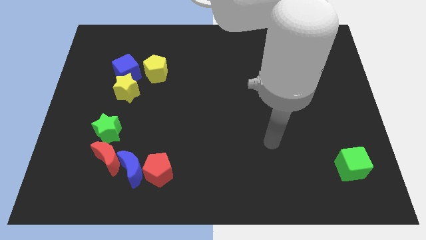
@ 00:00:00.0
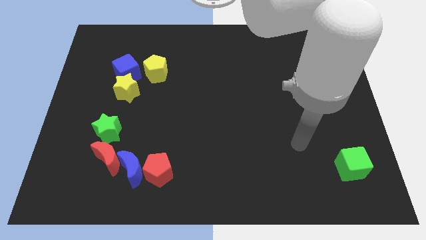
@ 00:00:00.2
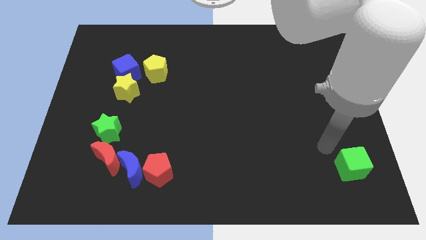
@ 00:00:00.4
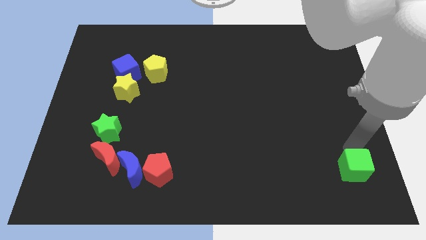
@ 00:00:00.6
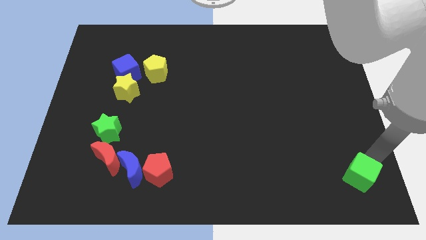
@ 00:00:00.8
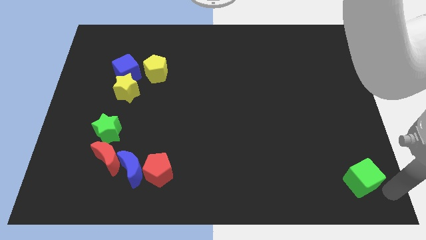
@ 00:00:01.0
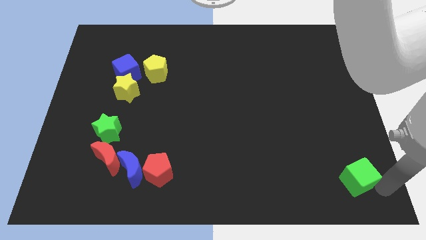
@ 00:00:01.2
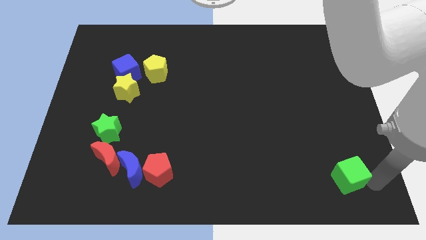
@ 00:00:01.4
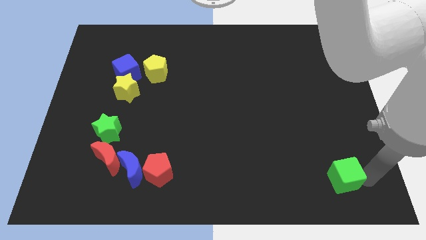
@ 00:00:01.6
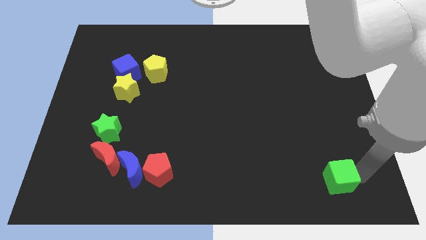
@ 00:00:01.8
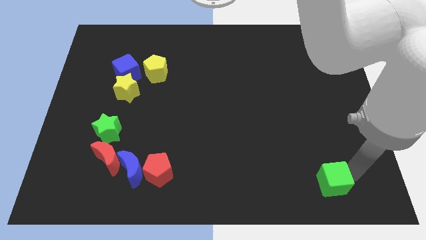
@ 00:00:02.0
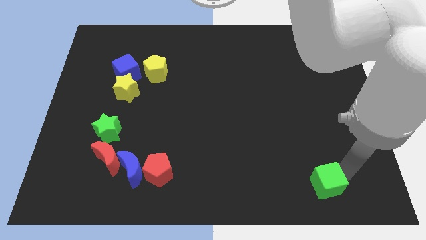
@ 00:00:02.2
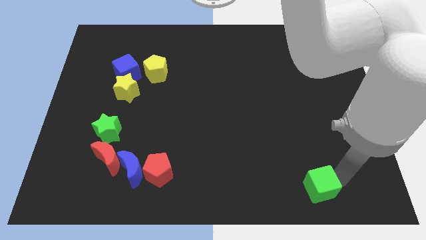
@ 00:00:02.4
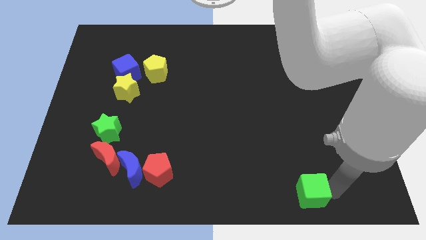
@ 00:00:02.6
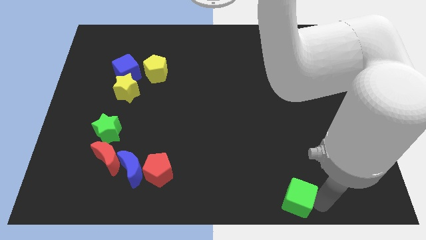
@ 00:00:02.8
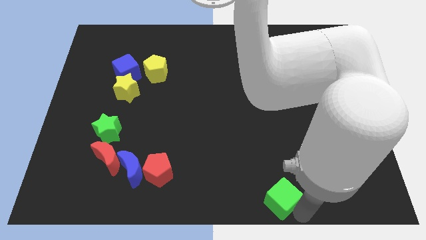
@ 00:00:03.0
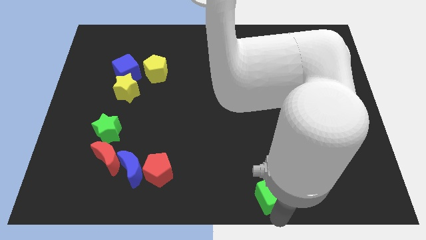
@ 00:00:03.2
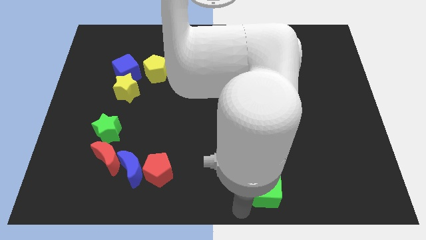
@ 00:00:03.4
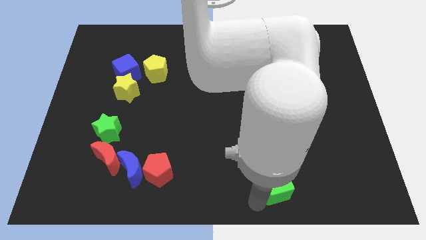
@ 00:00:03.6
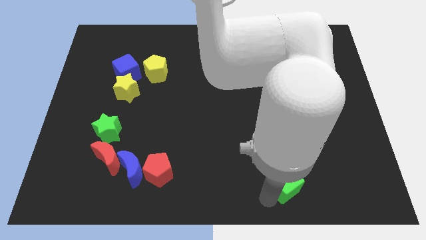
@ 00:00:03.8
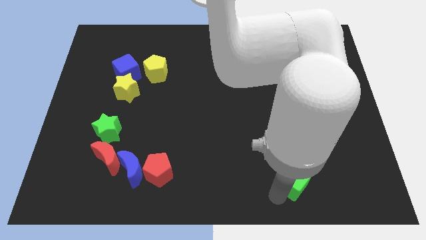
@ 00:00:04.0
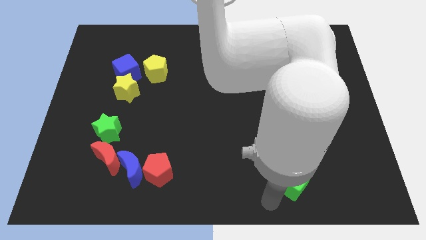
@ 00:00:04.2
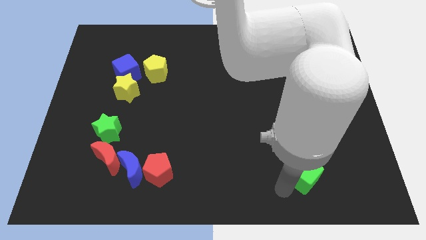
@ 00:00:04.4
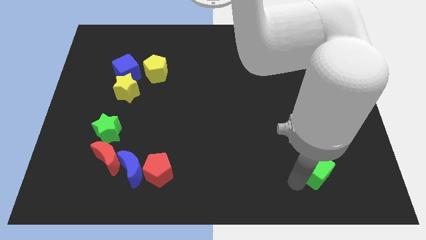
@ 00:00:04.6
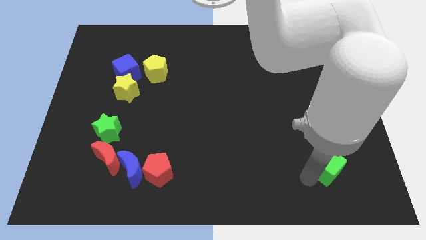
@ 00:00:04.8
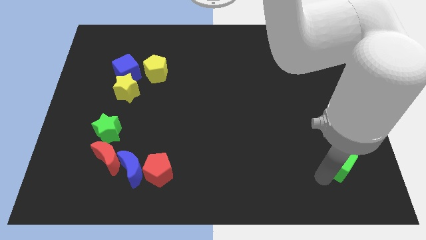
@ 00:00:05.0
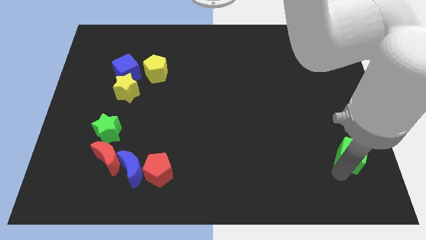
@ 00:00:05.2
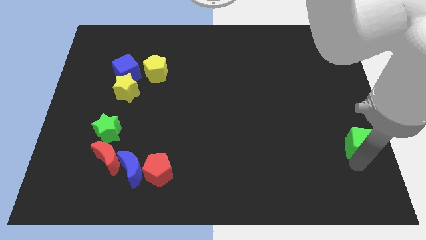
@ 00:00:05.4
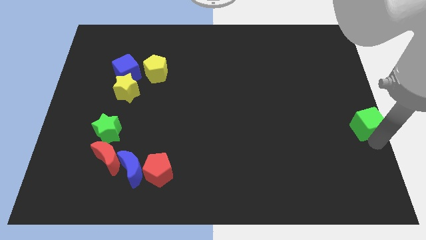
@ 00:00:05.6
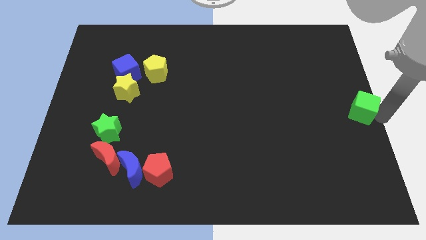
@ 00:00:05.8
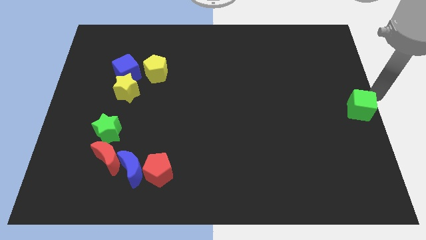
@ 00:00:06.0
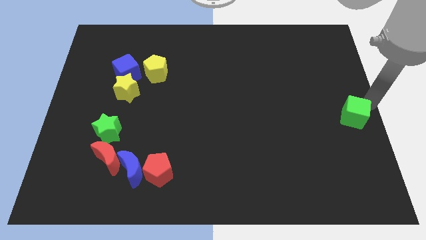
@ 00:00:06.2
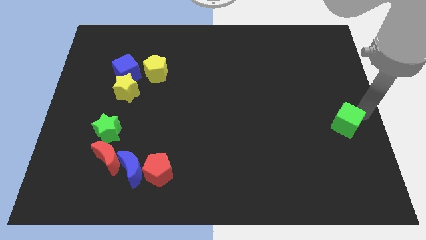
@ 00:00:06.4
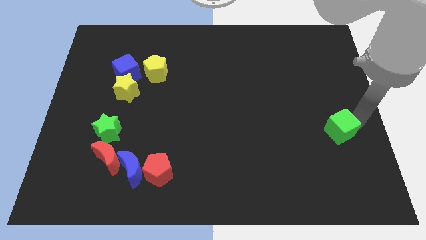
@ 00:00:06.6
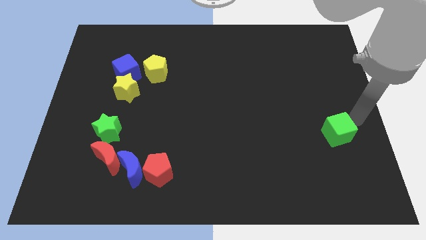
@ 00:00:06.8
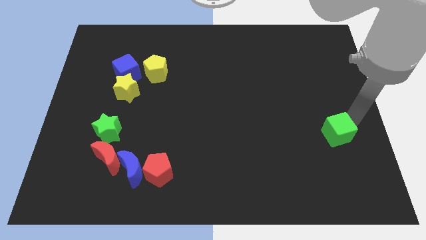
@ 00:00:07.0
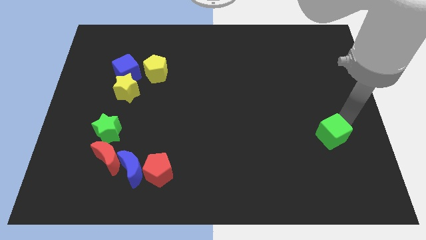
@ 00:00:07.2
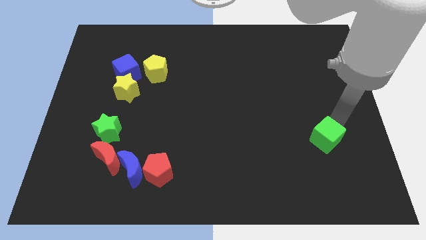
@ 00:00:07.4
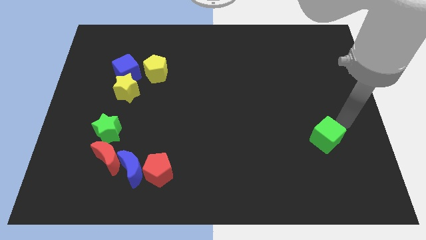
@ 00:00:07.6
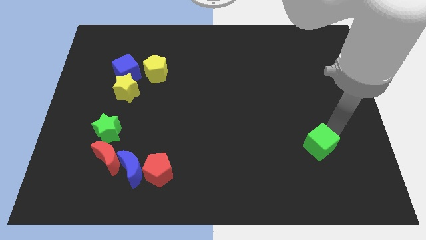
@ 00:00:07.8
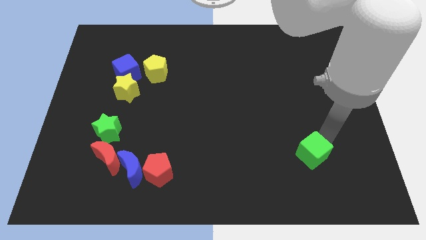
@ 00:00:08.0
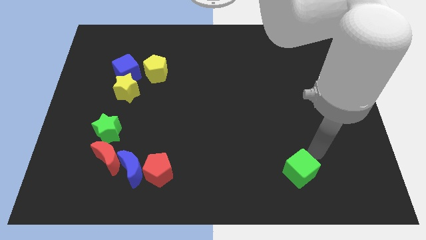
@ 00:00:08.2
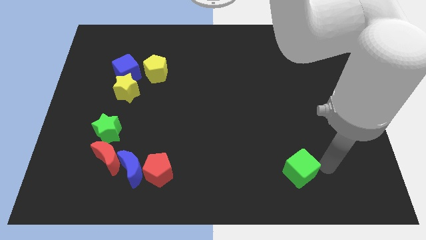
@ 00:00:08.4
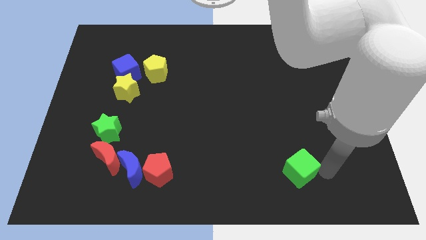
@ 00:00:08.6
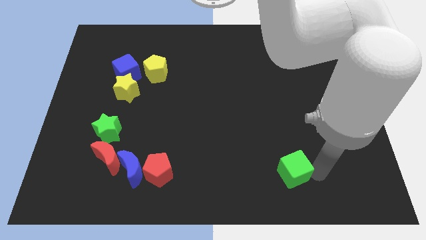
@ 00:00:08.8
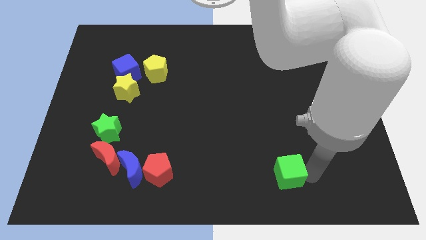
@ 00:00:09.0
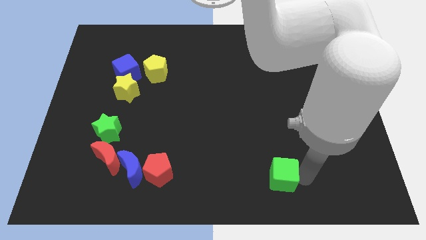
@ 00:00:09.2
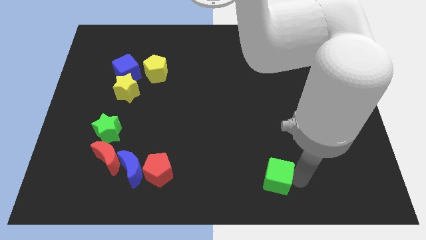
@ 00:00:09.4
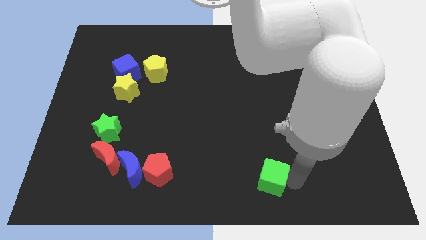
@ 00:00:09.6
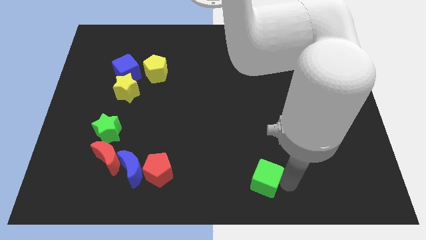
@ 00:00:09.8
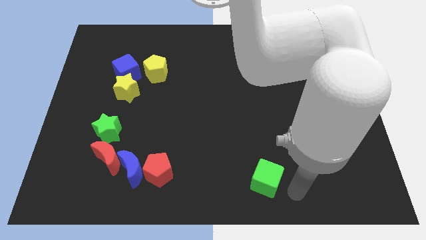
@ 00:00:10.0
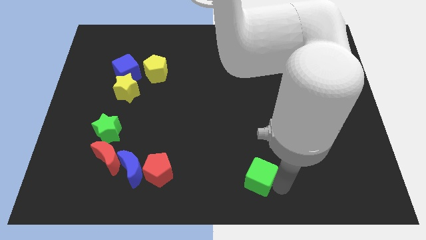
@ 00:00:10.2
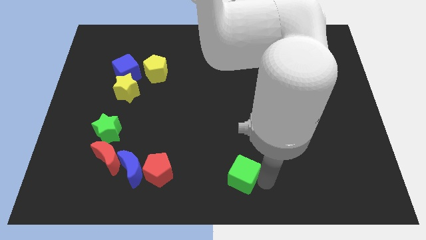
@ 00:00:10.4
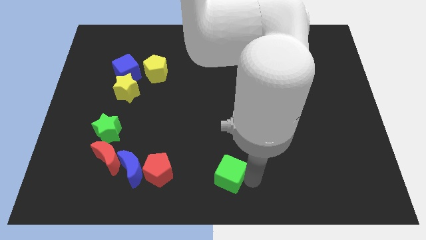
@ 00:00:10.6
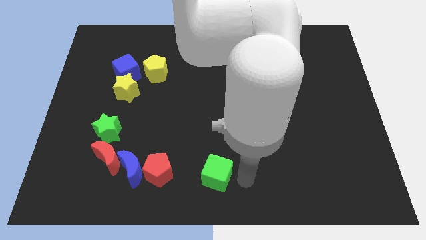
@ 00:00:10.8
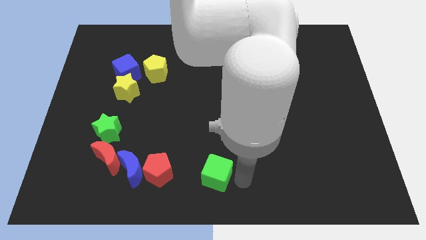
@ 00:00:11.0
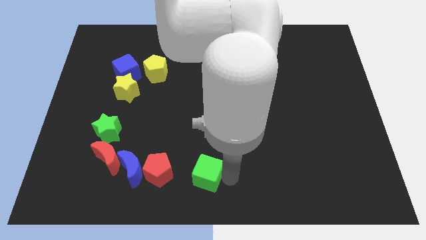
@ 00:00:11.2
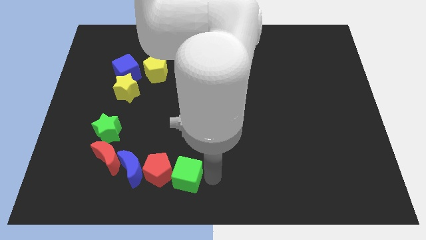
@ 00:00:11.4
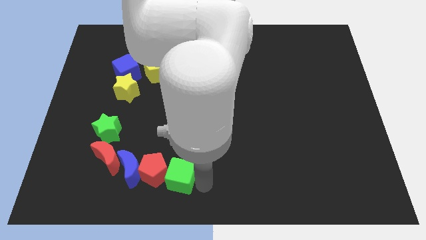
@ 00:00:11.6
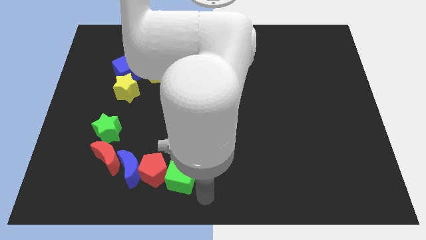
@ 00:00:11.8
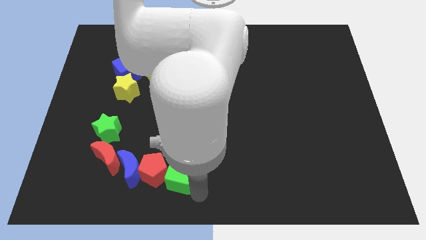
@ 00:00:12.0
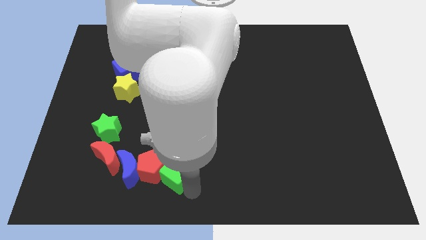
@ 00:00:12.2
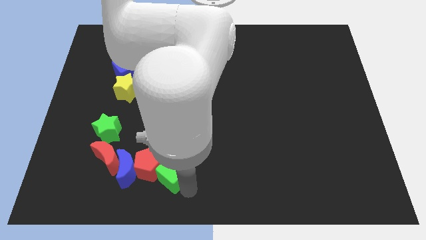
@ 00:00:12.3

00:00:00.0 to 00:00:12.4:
push the green cube to the right of the red moon

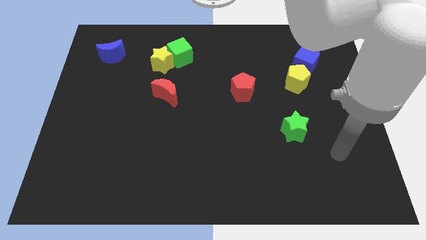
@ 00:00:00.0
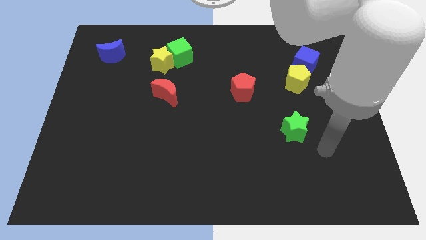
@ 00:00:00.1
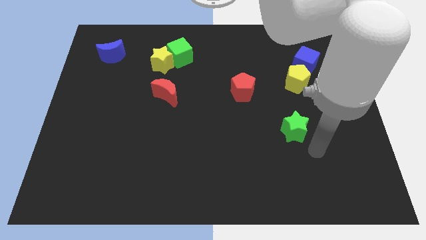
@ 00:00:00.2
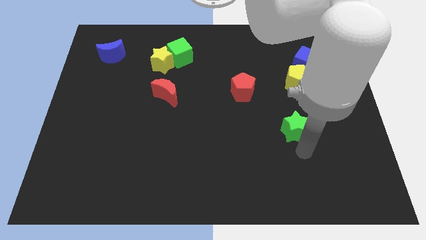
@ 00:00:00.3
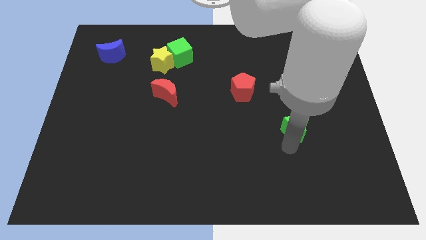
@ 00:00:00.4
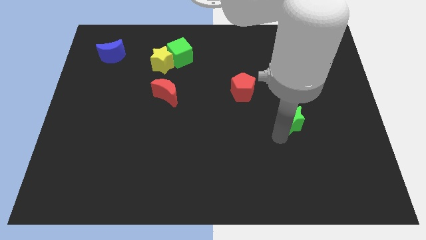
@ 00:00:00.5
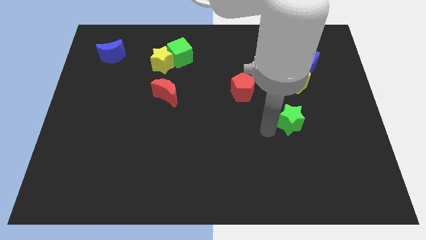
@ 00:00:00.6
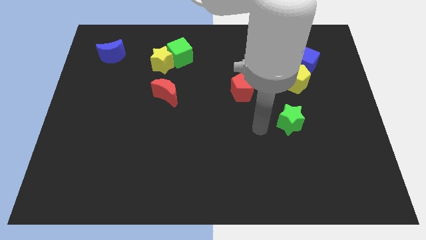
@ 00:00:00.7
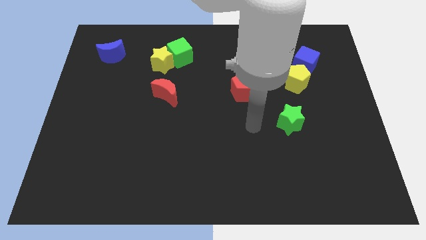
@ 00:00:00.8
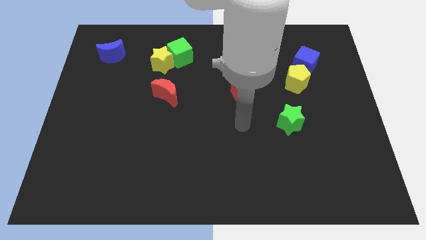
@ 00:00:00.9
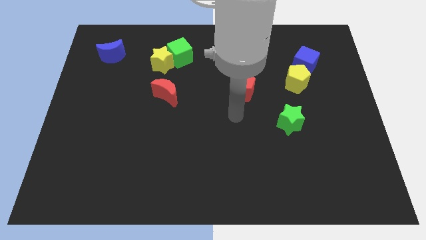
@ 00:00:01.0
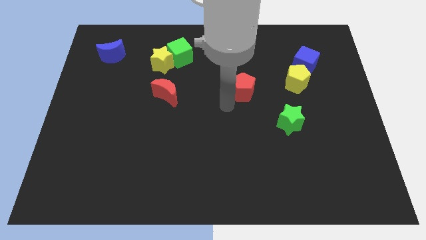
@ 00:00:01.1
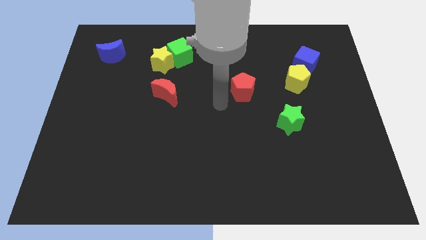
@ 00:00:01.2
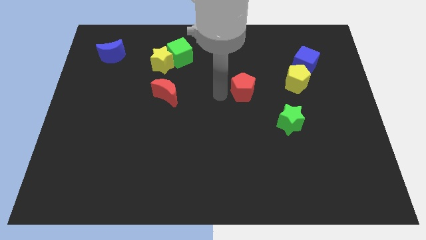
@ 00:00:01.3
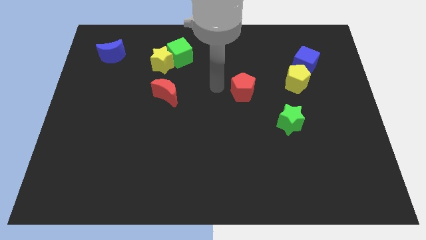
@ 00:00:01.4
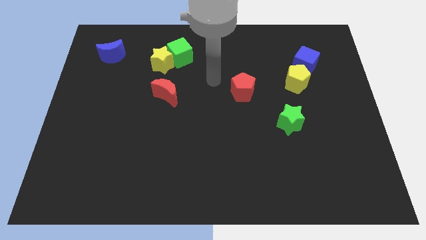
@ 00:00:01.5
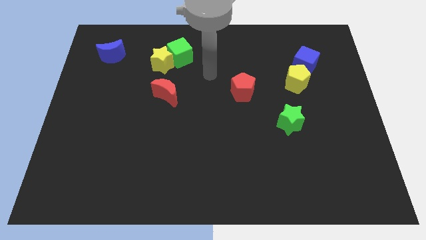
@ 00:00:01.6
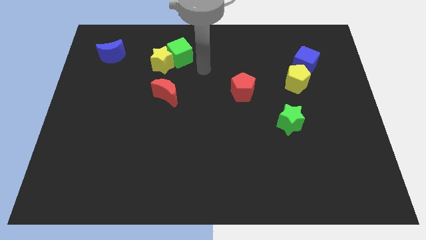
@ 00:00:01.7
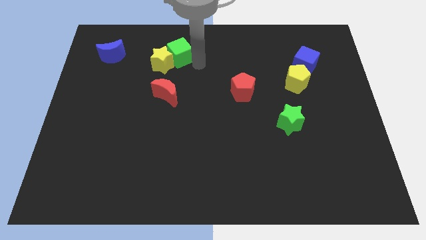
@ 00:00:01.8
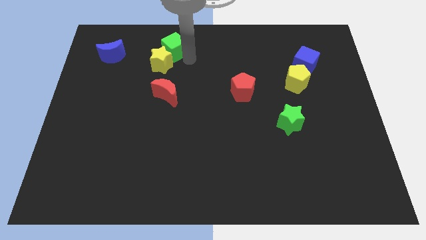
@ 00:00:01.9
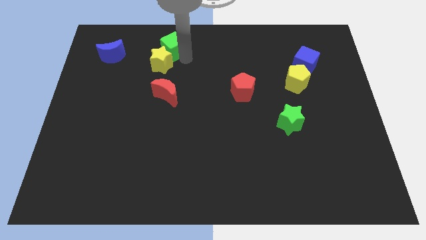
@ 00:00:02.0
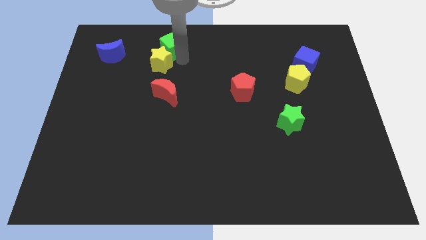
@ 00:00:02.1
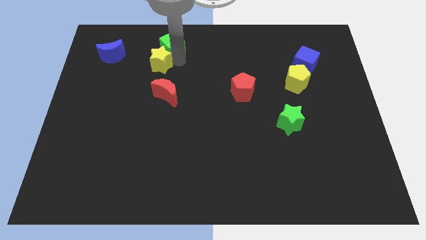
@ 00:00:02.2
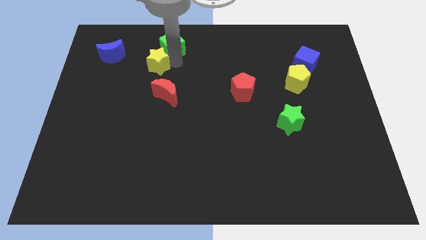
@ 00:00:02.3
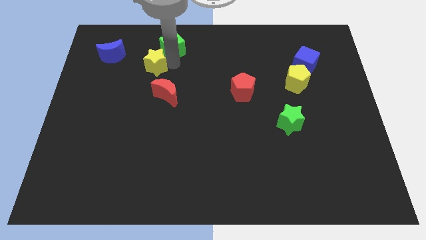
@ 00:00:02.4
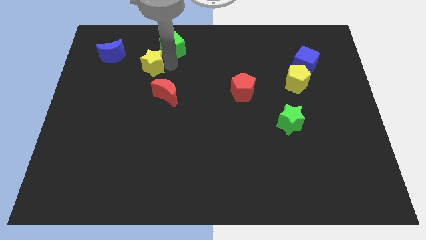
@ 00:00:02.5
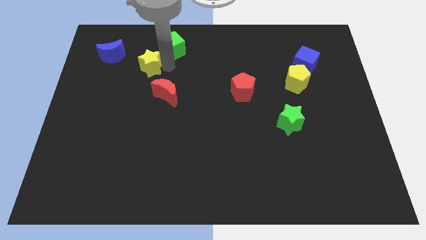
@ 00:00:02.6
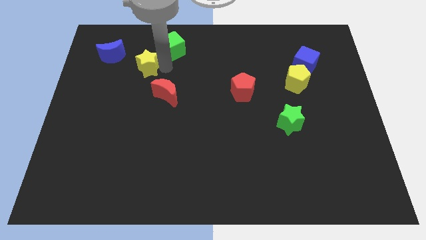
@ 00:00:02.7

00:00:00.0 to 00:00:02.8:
put the yellow star to the bottom right of the blue moon
